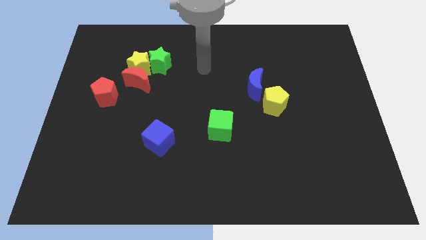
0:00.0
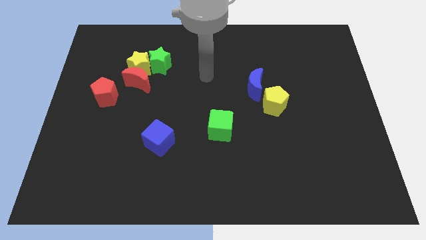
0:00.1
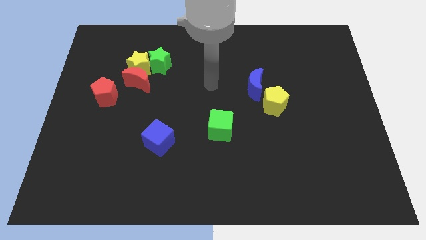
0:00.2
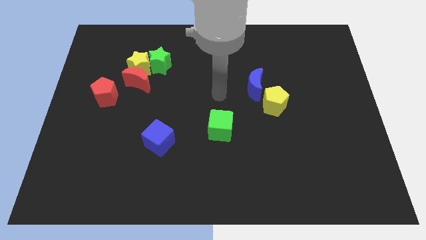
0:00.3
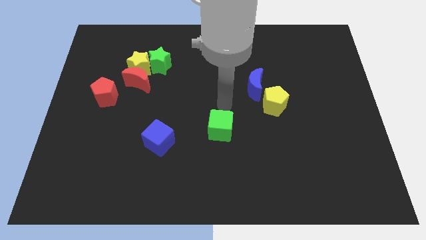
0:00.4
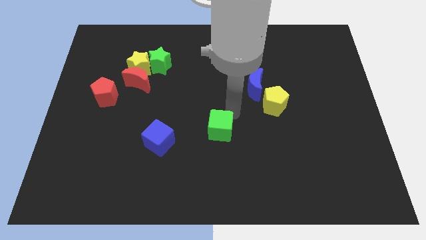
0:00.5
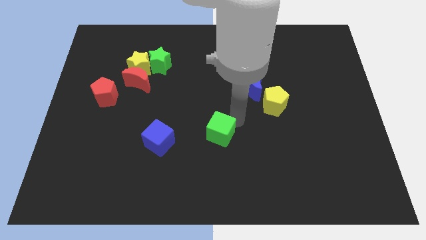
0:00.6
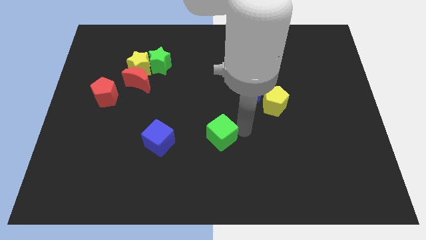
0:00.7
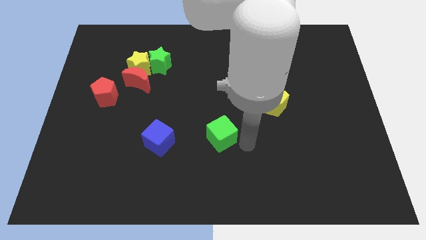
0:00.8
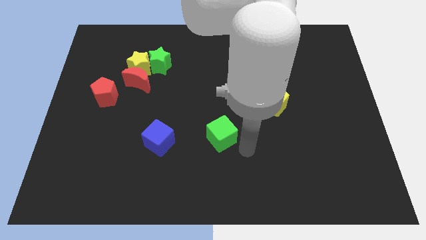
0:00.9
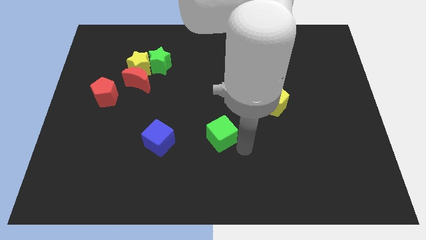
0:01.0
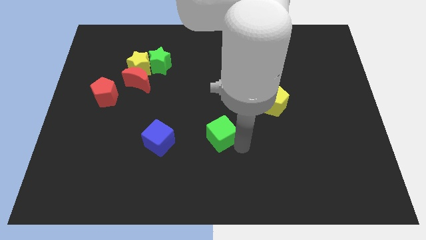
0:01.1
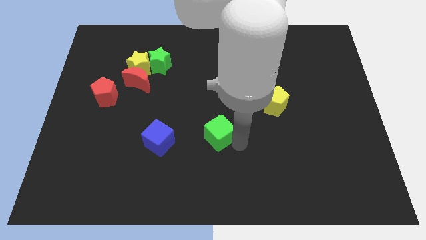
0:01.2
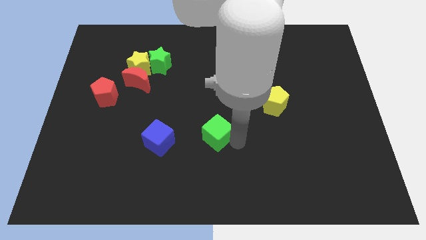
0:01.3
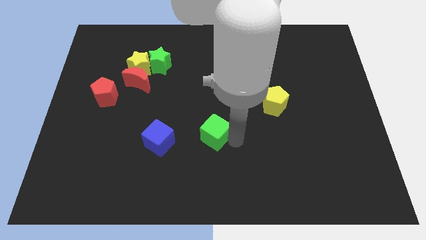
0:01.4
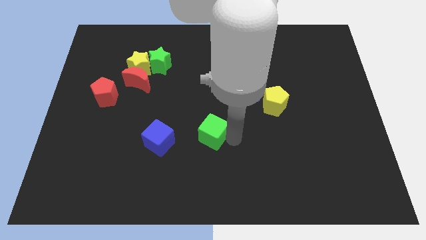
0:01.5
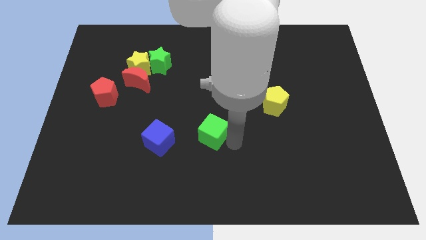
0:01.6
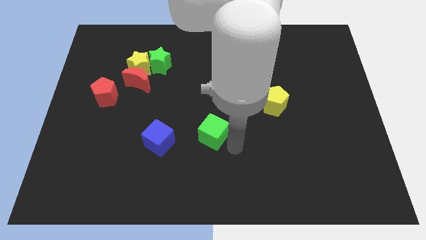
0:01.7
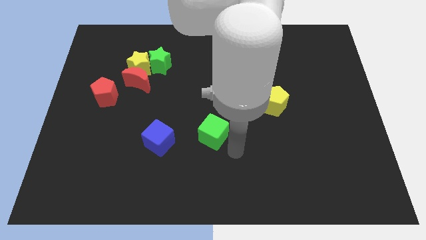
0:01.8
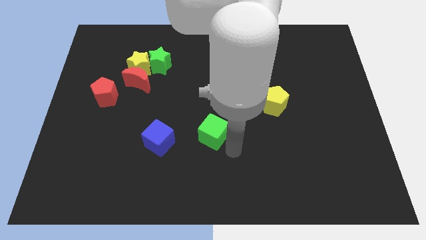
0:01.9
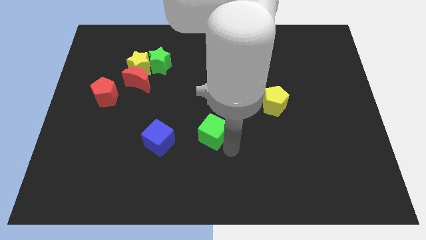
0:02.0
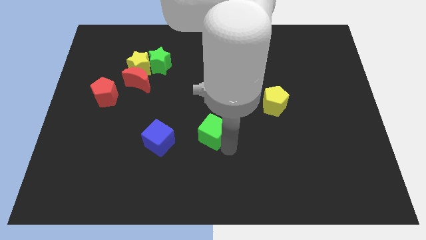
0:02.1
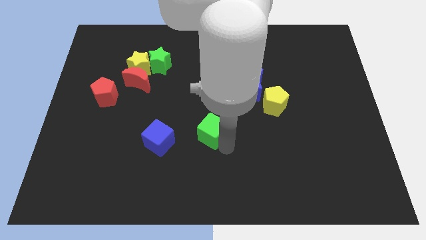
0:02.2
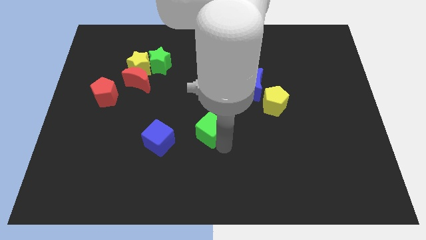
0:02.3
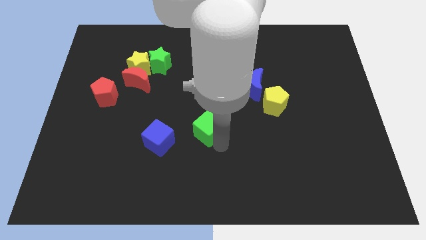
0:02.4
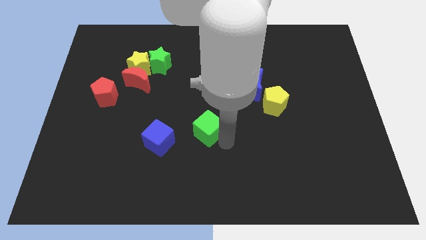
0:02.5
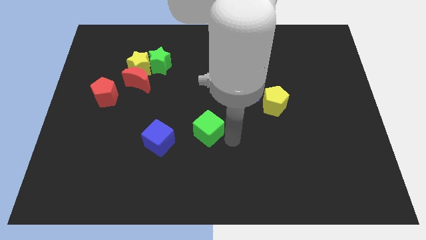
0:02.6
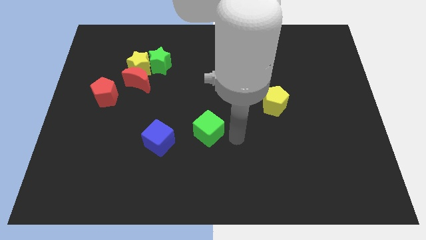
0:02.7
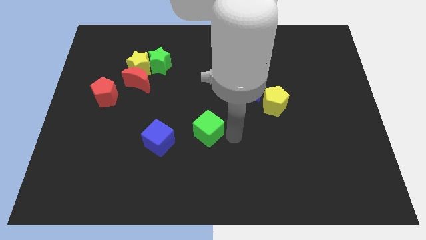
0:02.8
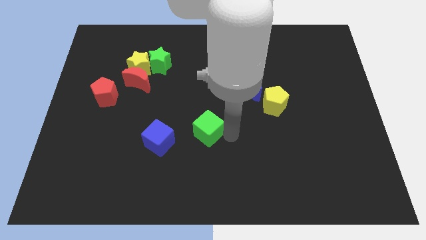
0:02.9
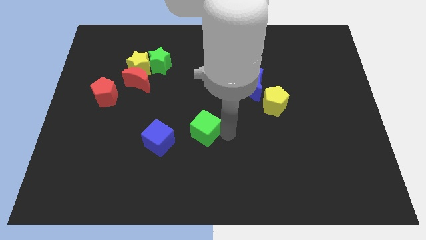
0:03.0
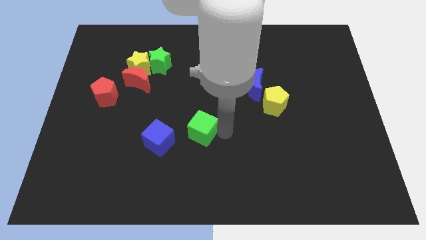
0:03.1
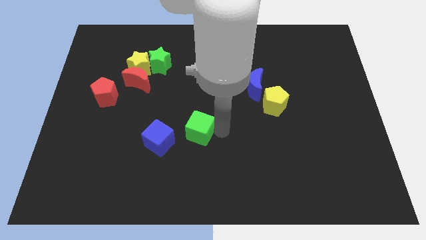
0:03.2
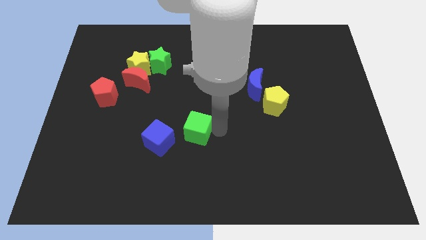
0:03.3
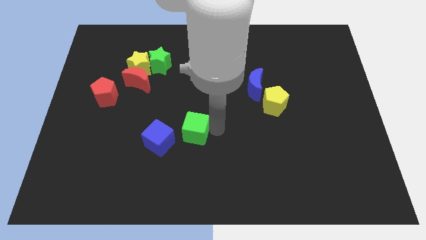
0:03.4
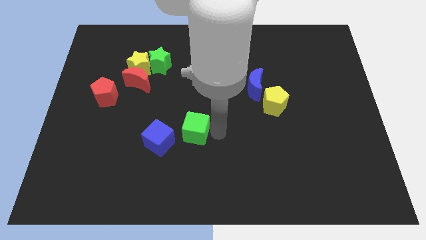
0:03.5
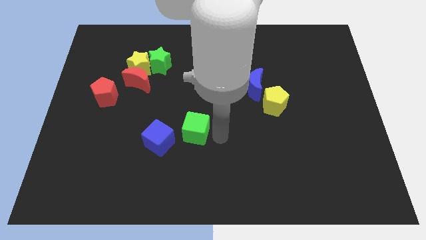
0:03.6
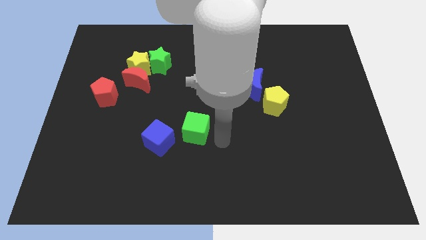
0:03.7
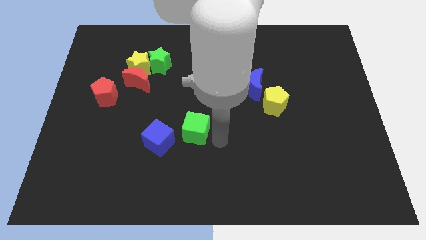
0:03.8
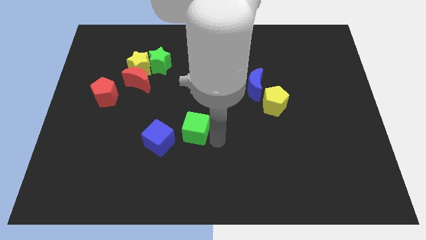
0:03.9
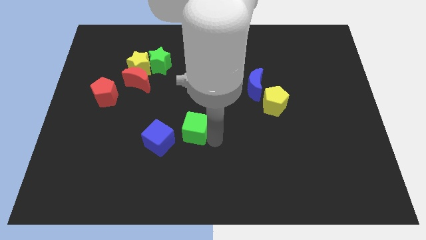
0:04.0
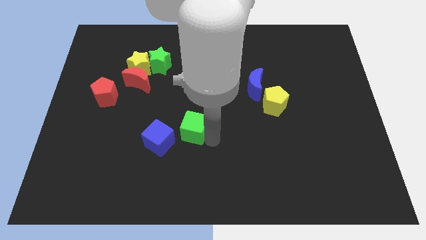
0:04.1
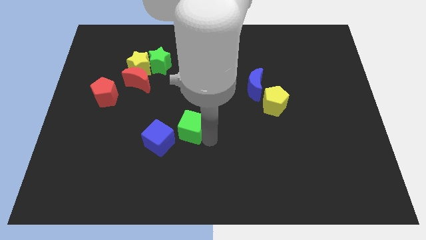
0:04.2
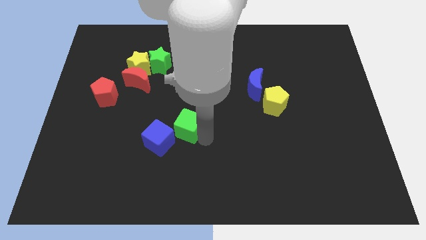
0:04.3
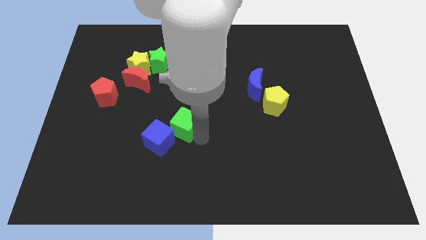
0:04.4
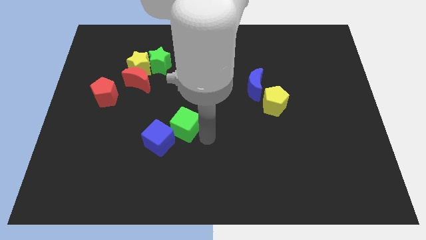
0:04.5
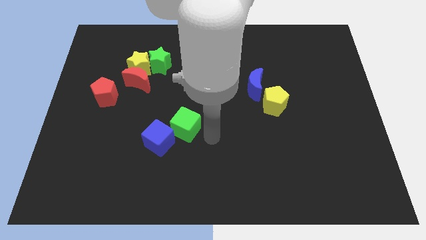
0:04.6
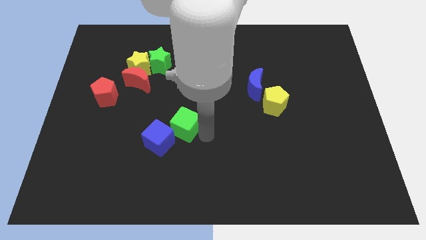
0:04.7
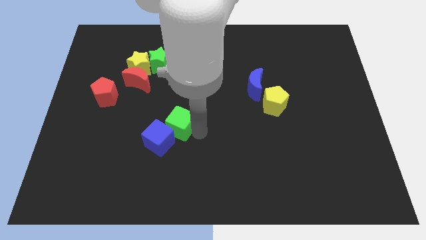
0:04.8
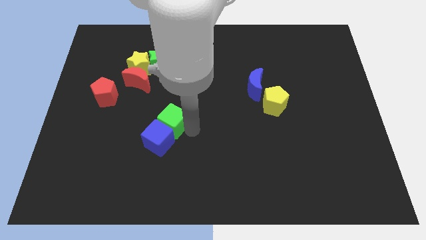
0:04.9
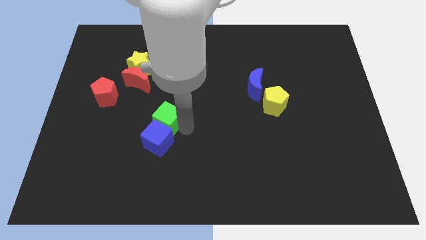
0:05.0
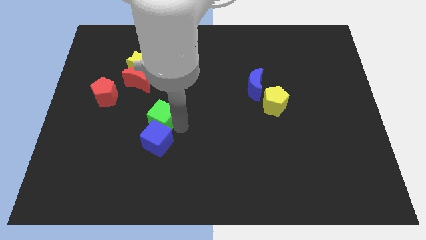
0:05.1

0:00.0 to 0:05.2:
slide the green cube to the top left of the blue cube

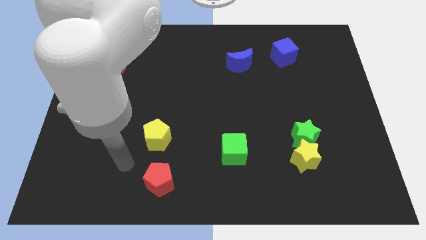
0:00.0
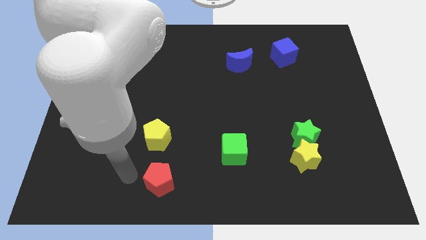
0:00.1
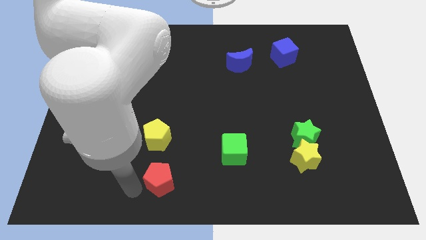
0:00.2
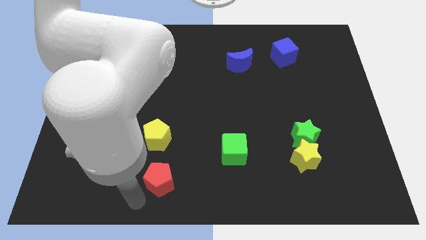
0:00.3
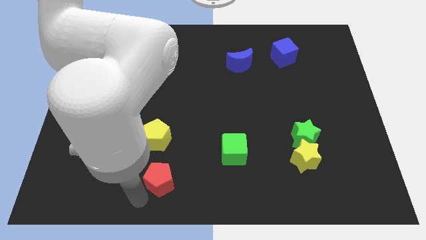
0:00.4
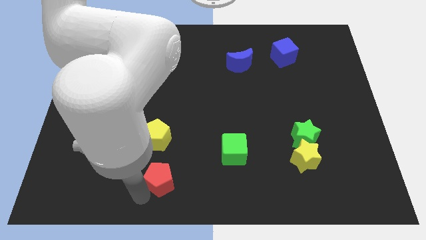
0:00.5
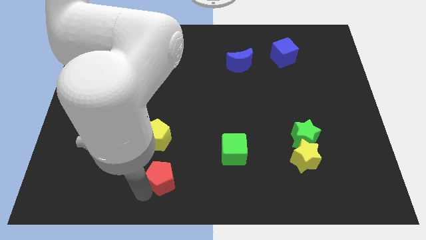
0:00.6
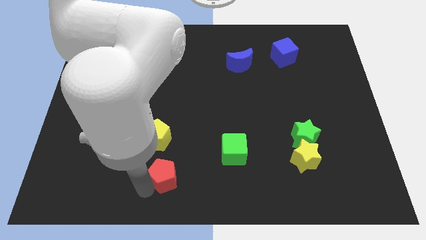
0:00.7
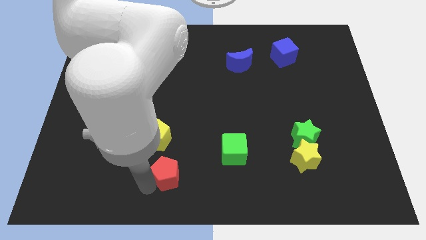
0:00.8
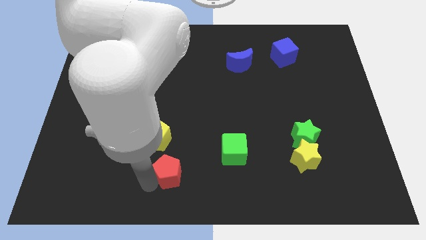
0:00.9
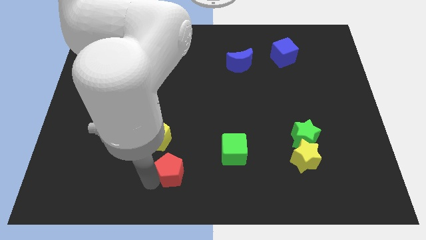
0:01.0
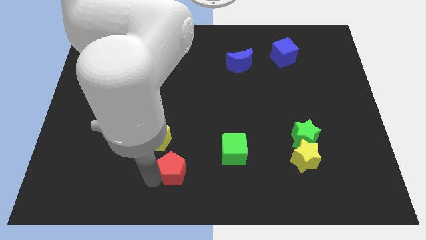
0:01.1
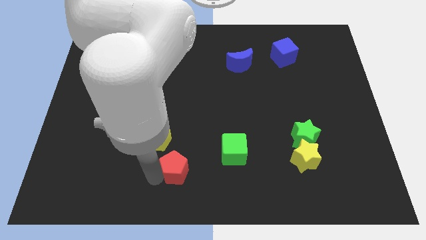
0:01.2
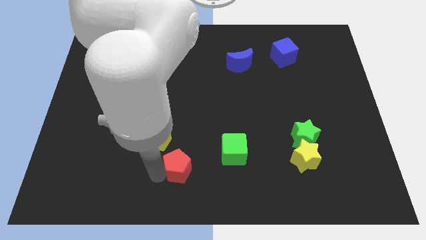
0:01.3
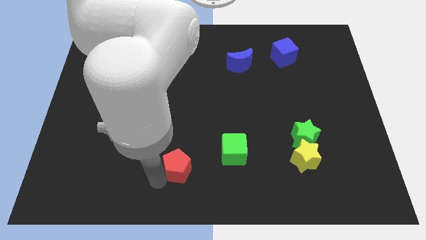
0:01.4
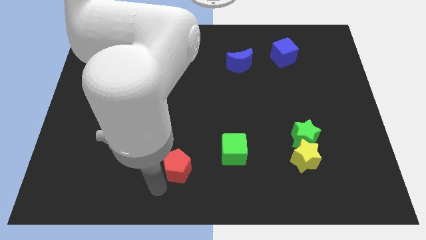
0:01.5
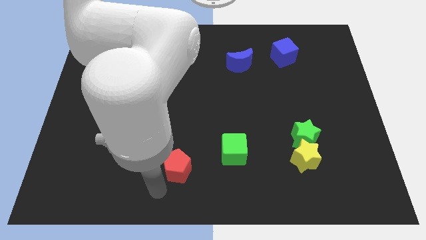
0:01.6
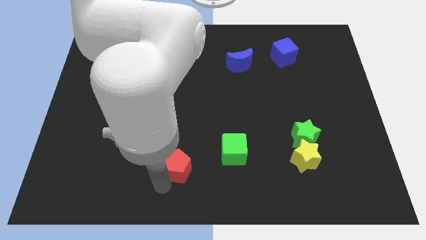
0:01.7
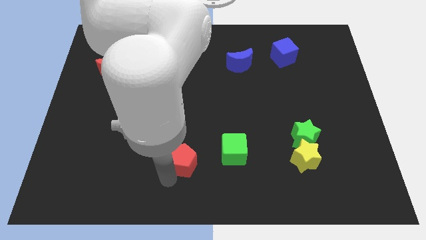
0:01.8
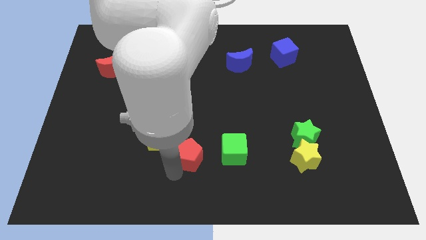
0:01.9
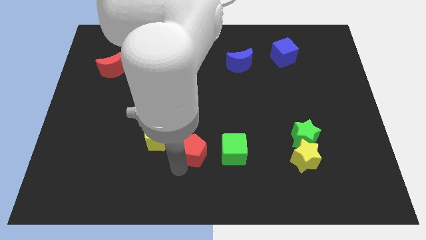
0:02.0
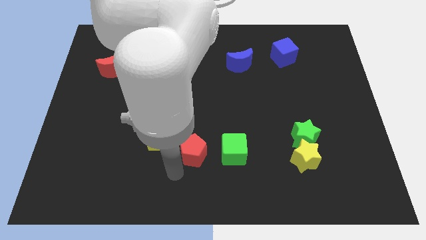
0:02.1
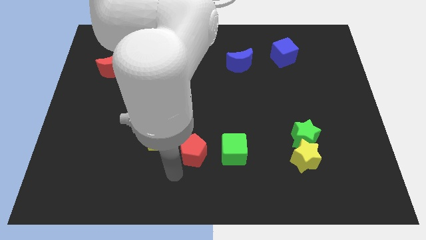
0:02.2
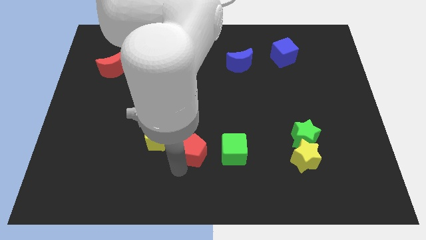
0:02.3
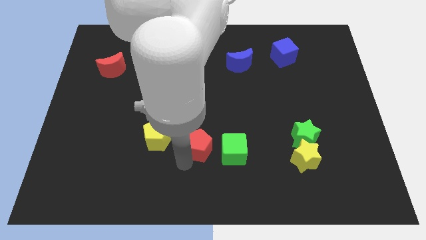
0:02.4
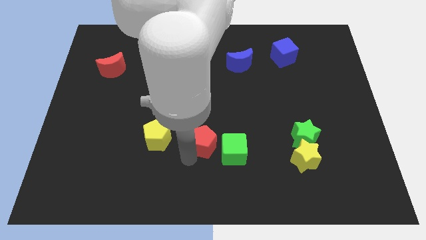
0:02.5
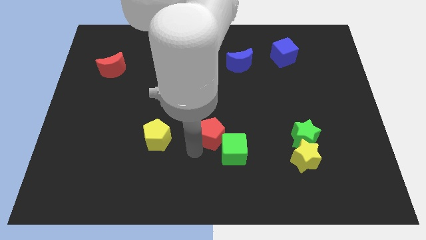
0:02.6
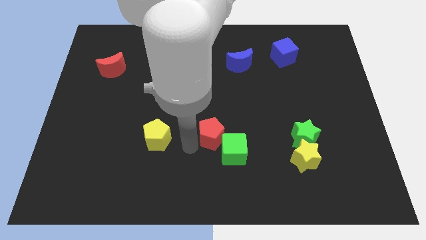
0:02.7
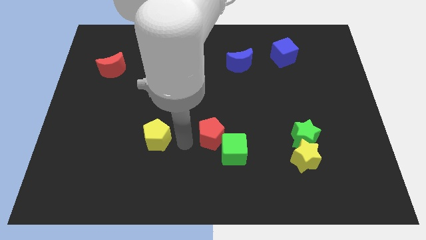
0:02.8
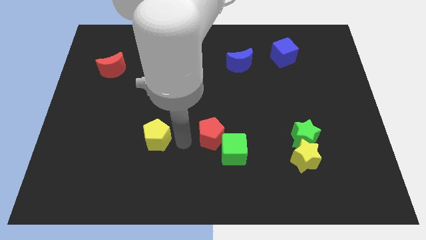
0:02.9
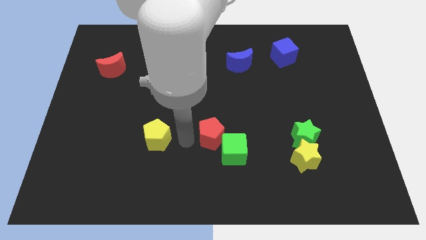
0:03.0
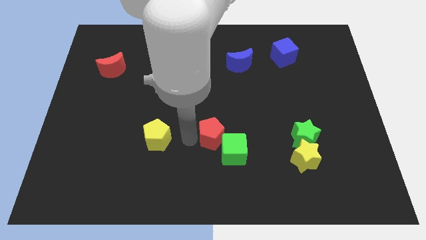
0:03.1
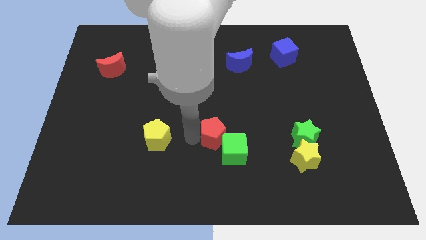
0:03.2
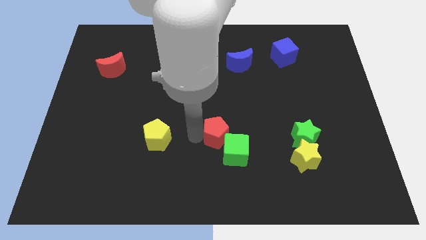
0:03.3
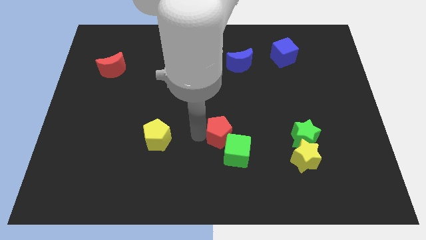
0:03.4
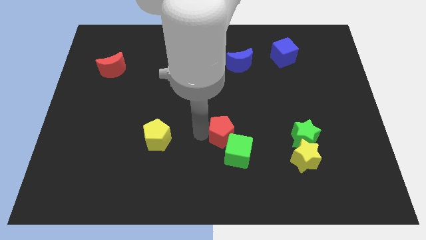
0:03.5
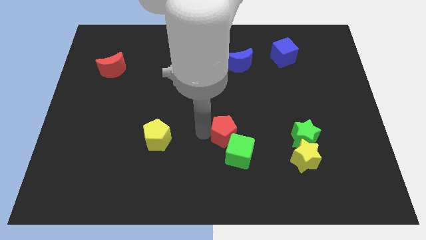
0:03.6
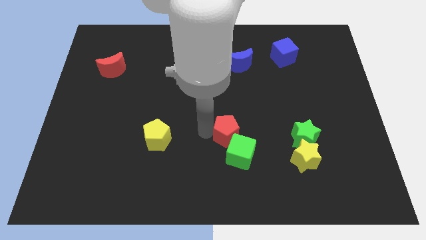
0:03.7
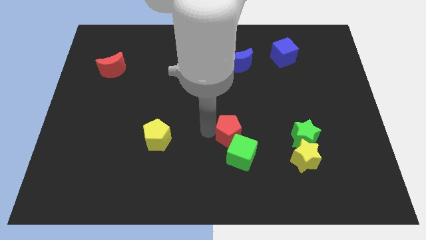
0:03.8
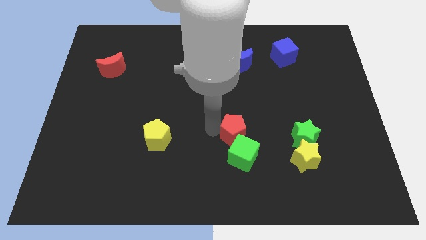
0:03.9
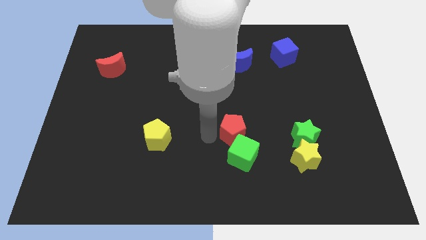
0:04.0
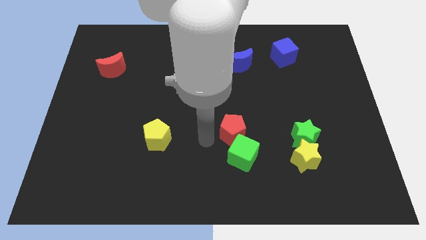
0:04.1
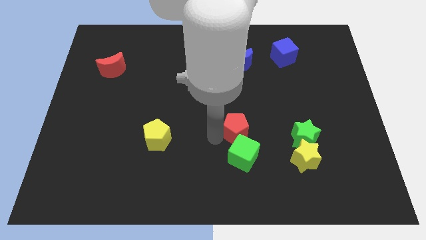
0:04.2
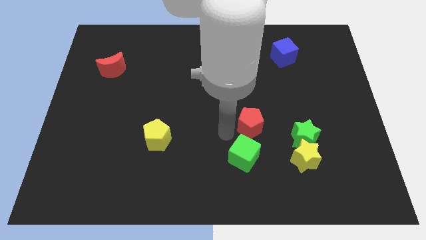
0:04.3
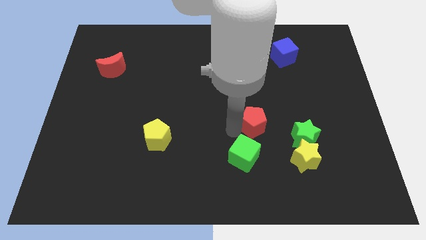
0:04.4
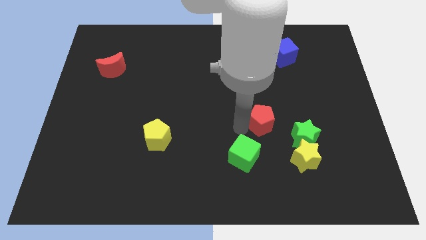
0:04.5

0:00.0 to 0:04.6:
slide the red pentagon to the top left side of the green star
